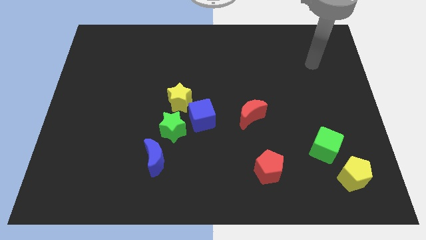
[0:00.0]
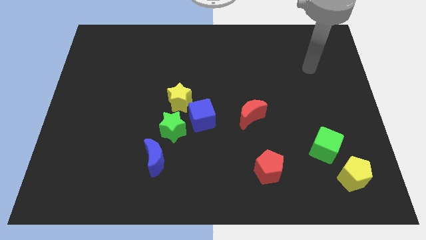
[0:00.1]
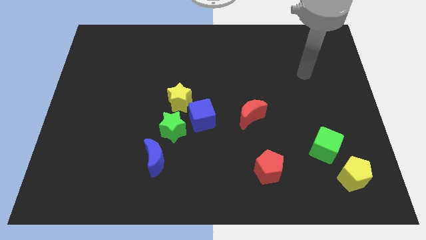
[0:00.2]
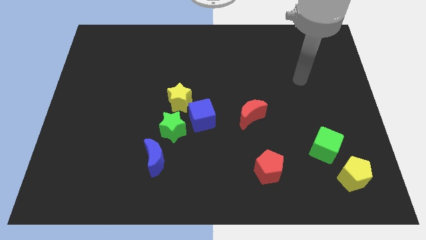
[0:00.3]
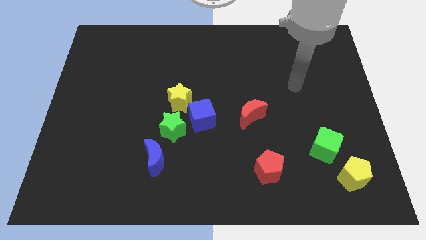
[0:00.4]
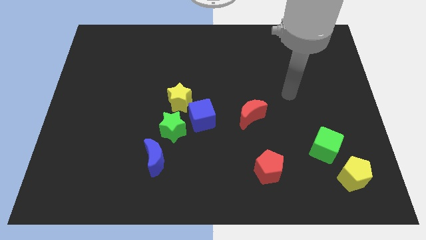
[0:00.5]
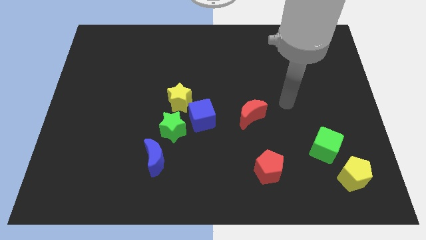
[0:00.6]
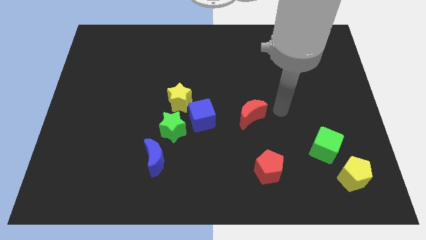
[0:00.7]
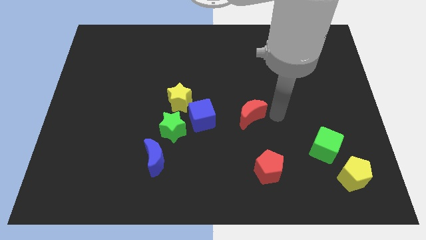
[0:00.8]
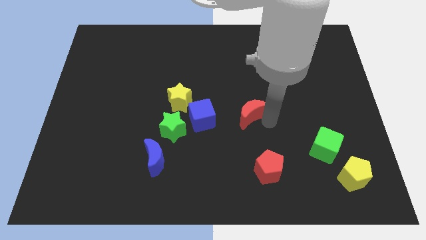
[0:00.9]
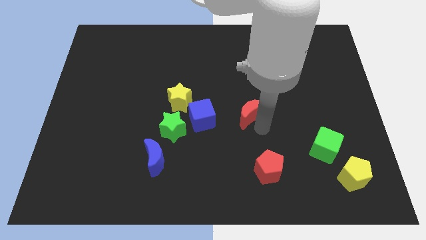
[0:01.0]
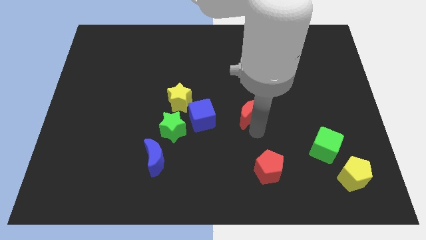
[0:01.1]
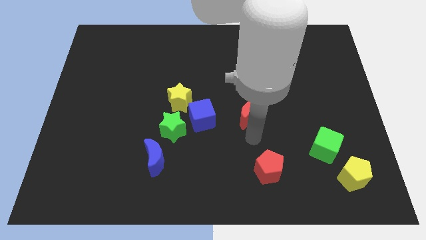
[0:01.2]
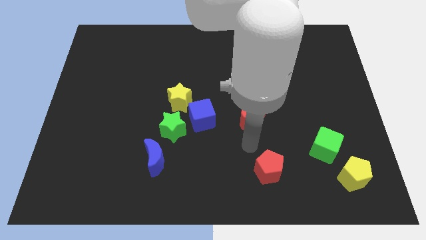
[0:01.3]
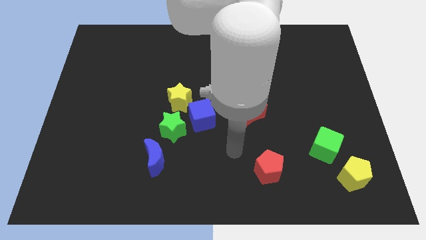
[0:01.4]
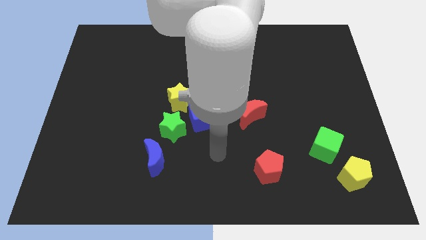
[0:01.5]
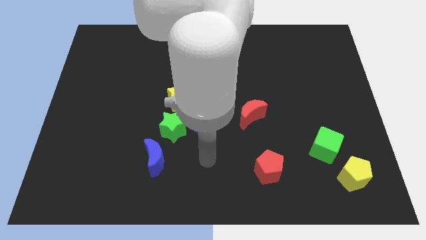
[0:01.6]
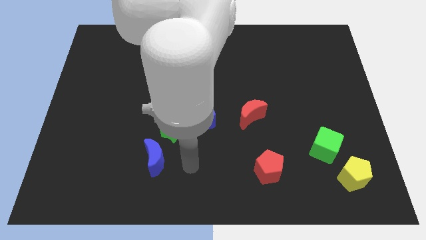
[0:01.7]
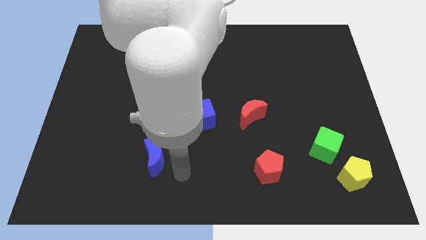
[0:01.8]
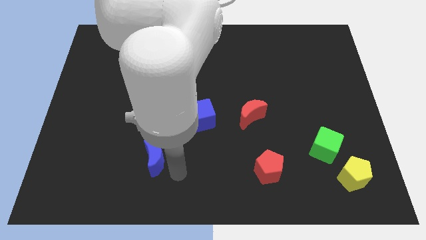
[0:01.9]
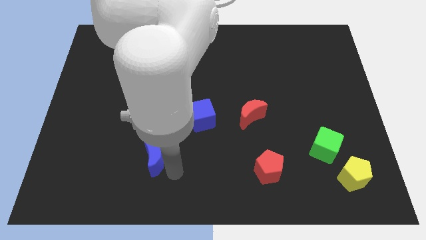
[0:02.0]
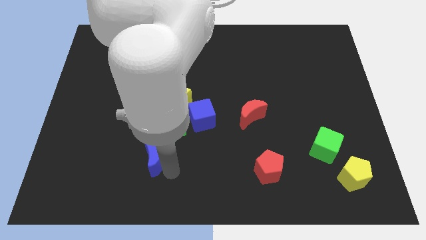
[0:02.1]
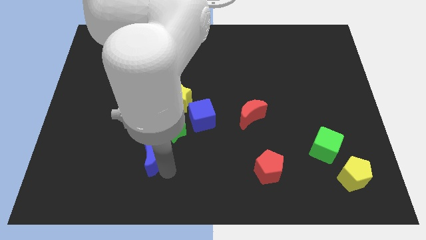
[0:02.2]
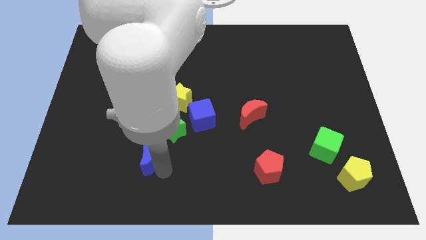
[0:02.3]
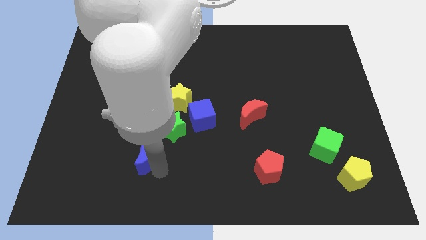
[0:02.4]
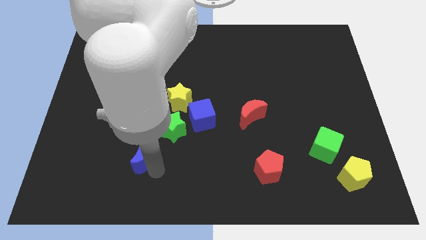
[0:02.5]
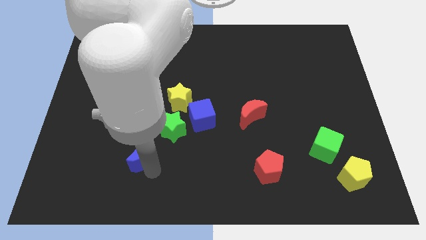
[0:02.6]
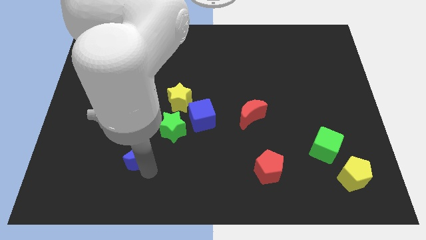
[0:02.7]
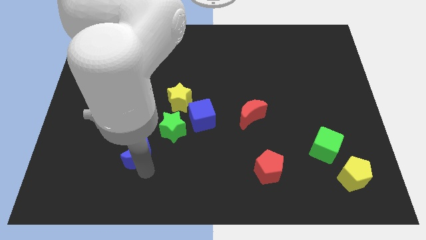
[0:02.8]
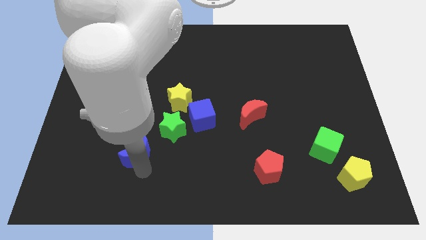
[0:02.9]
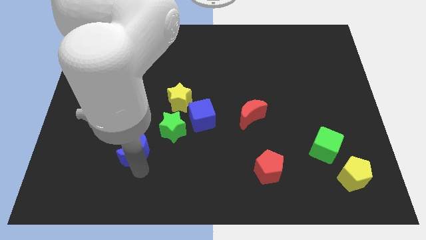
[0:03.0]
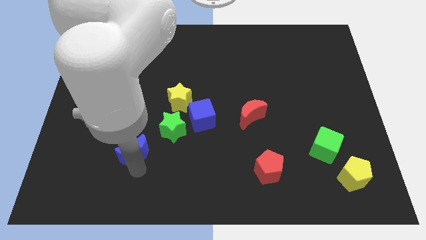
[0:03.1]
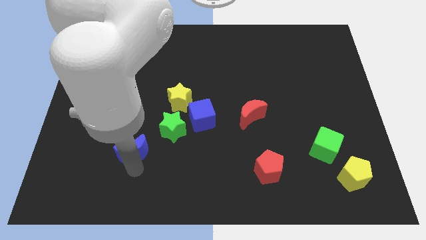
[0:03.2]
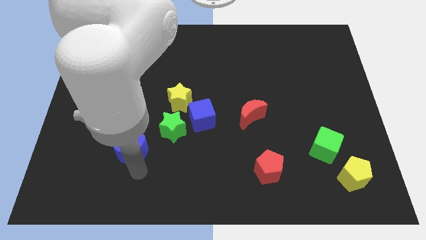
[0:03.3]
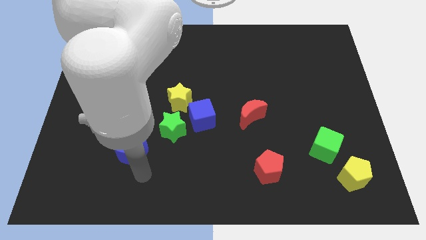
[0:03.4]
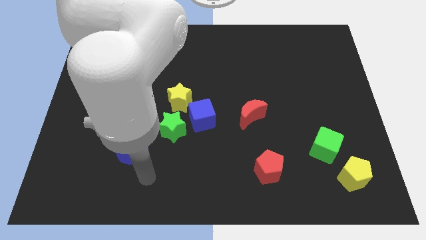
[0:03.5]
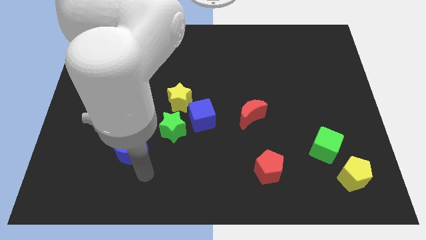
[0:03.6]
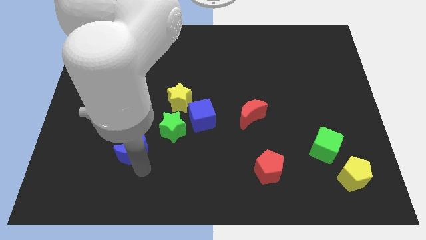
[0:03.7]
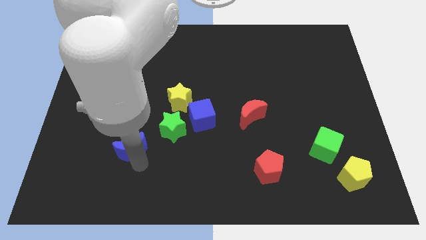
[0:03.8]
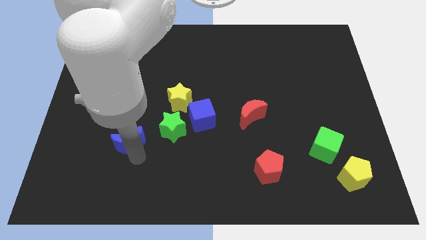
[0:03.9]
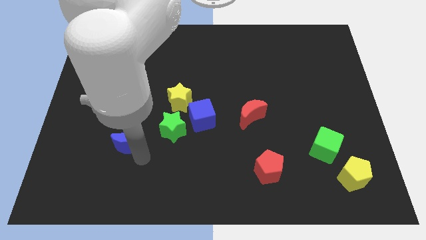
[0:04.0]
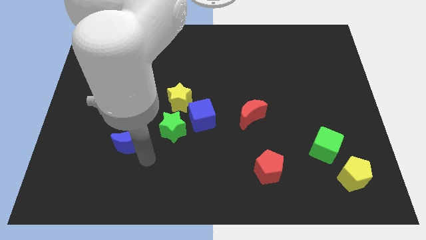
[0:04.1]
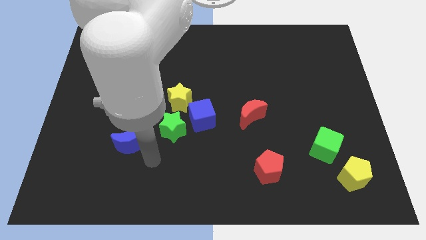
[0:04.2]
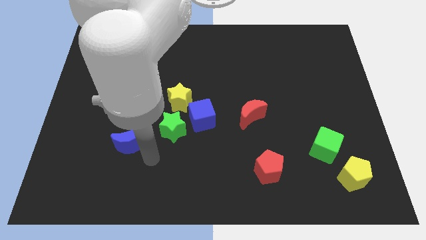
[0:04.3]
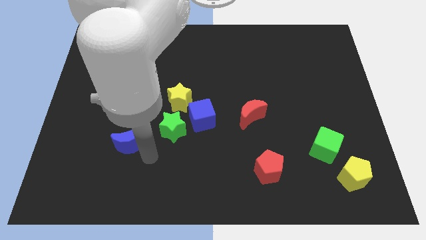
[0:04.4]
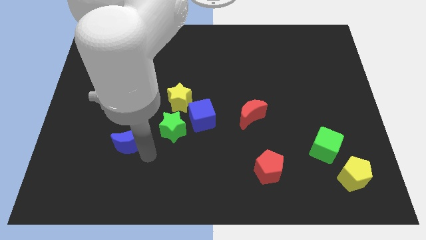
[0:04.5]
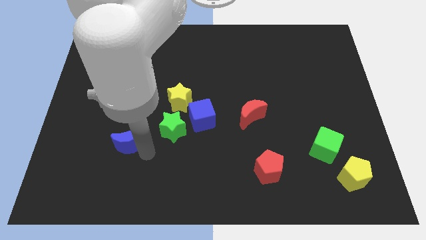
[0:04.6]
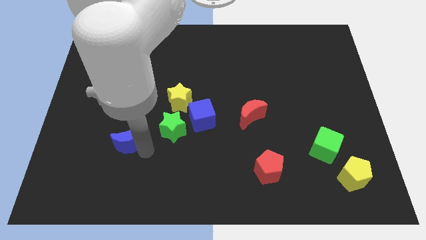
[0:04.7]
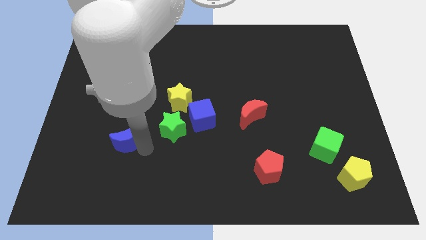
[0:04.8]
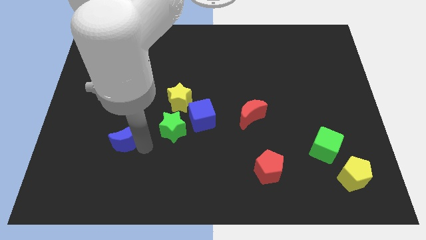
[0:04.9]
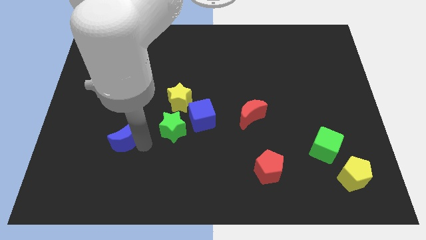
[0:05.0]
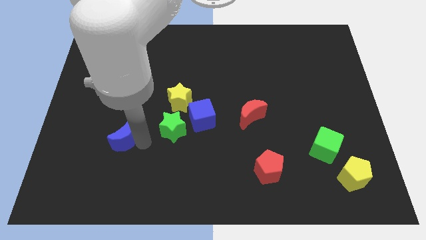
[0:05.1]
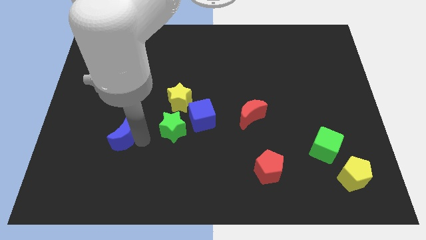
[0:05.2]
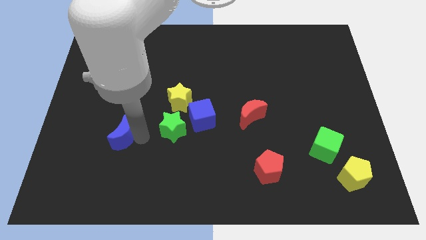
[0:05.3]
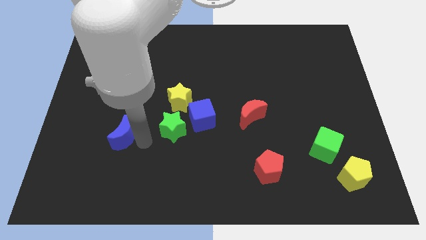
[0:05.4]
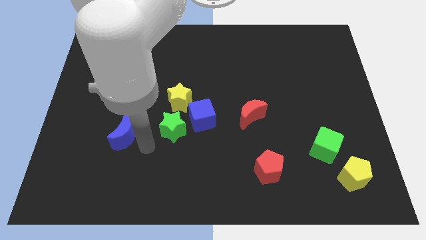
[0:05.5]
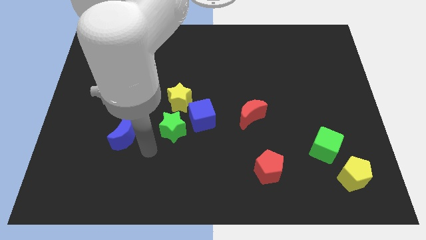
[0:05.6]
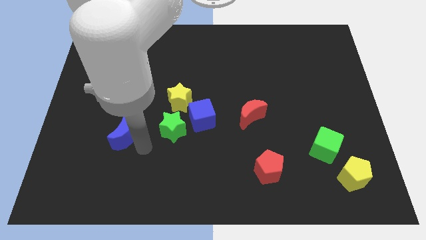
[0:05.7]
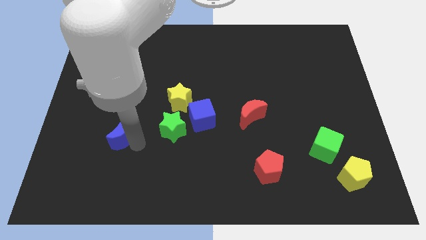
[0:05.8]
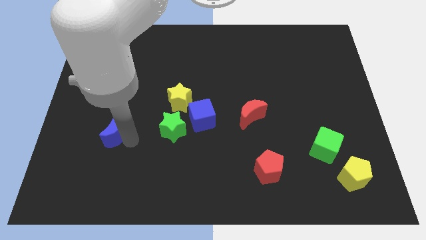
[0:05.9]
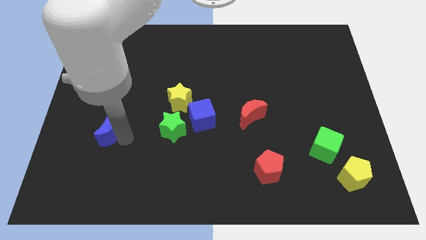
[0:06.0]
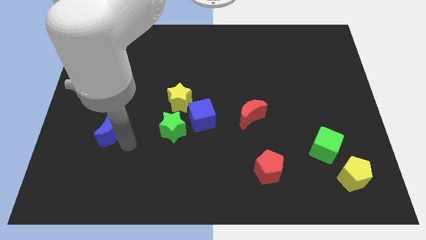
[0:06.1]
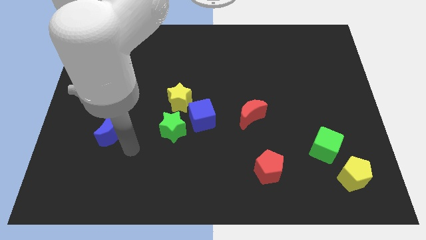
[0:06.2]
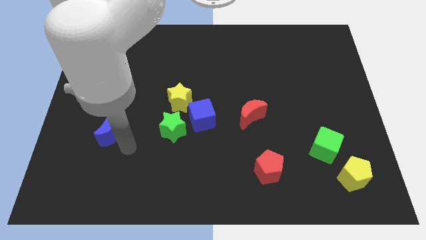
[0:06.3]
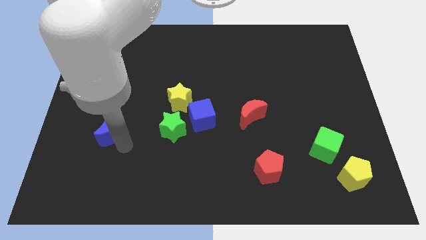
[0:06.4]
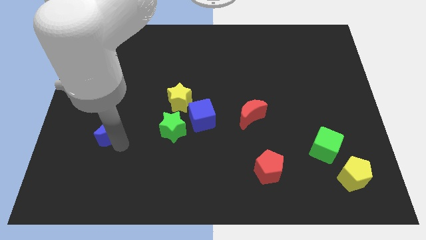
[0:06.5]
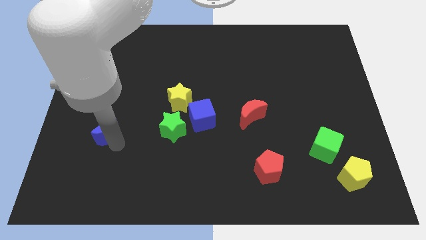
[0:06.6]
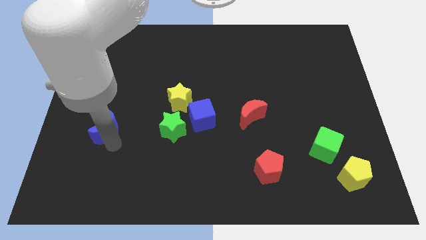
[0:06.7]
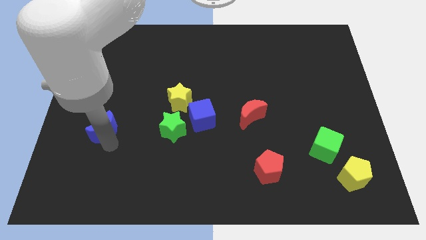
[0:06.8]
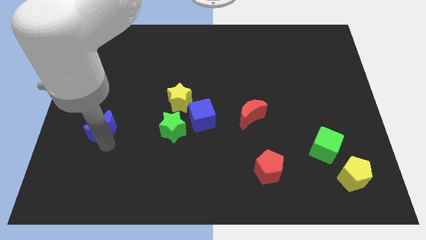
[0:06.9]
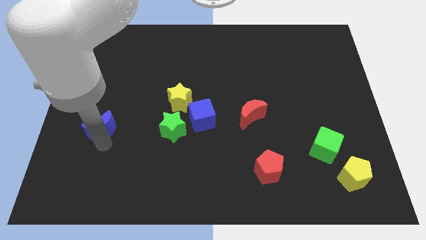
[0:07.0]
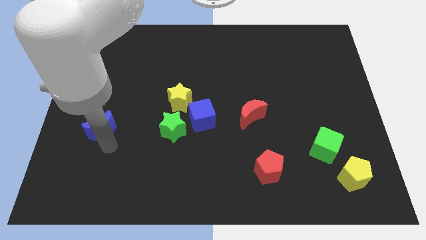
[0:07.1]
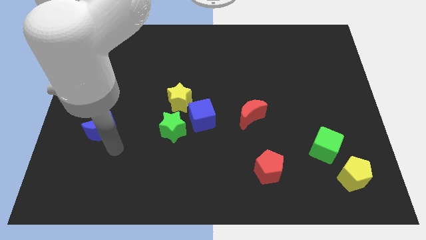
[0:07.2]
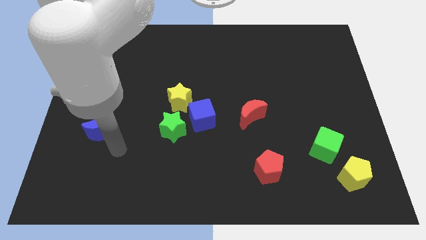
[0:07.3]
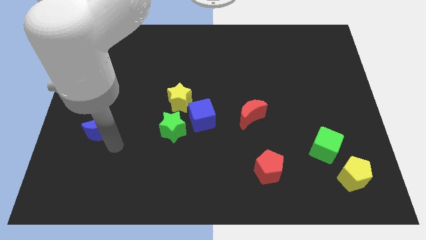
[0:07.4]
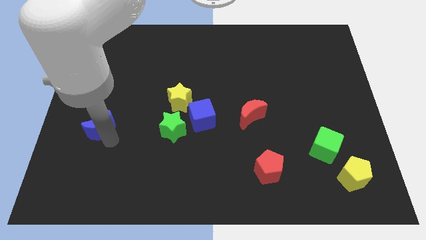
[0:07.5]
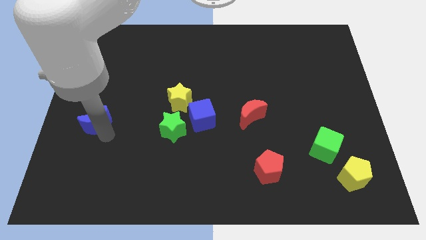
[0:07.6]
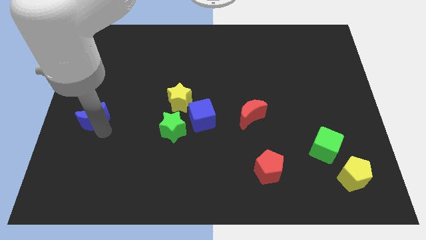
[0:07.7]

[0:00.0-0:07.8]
push the blue moon to the left side of the board
